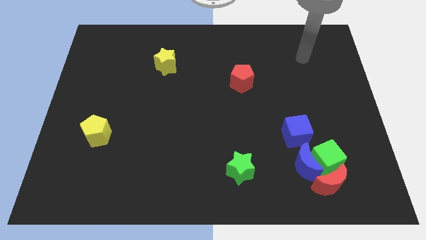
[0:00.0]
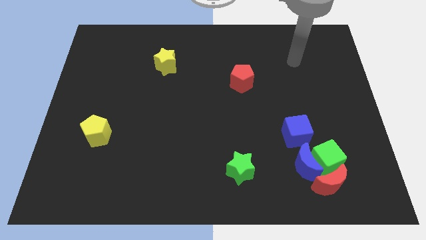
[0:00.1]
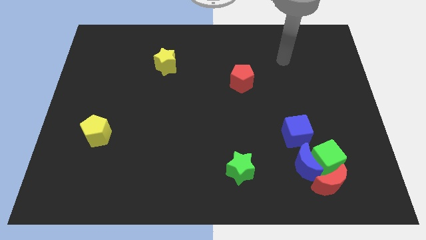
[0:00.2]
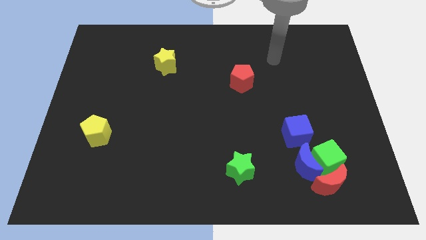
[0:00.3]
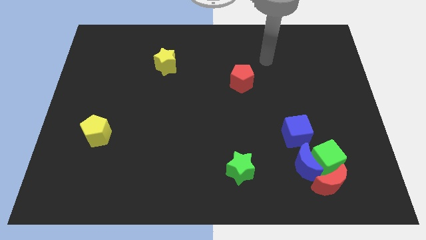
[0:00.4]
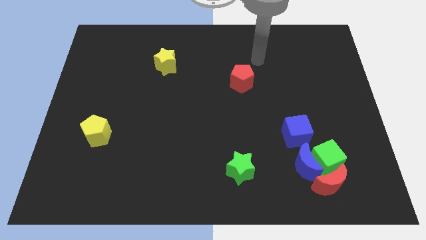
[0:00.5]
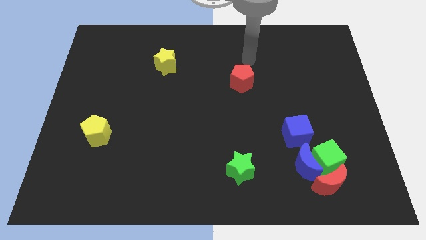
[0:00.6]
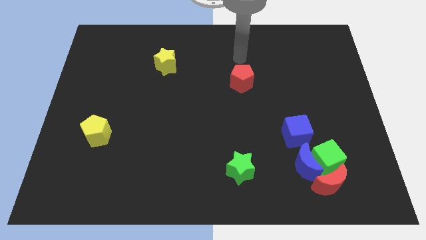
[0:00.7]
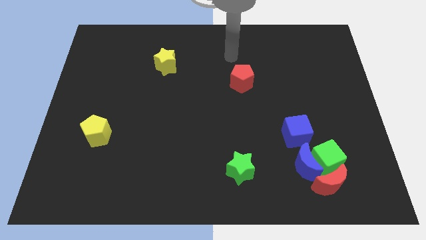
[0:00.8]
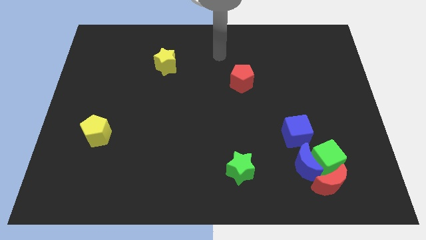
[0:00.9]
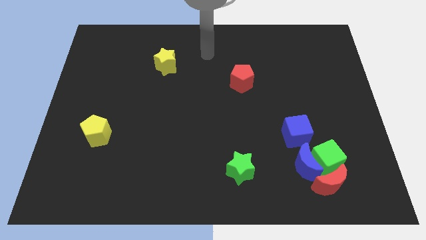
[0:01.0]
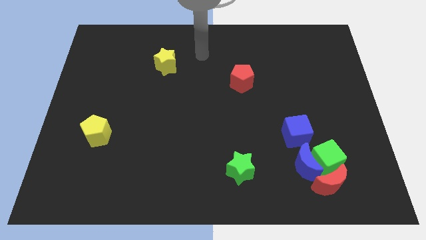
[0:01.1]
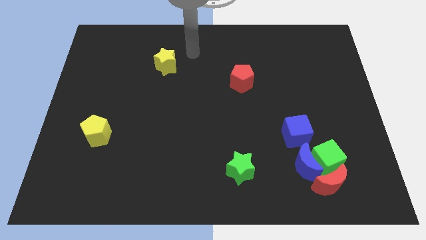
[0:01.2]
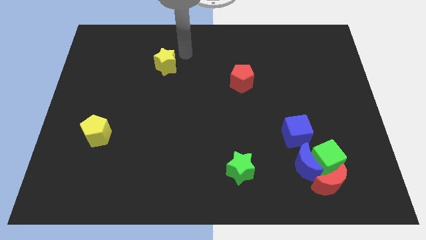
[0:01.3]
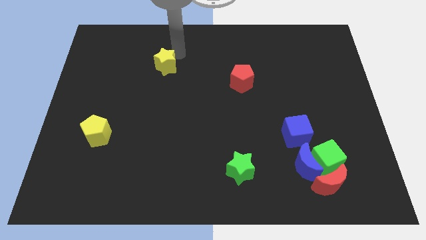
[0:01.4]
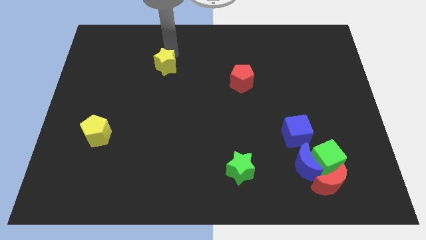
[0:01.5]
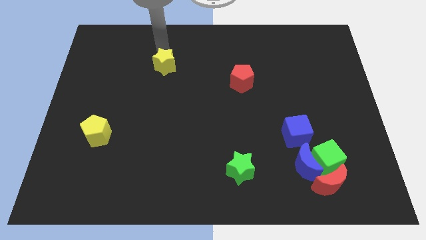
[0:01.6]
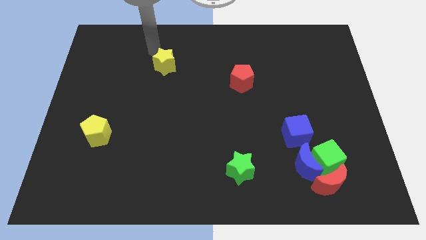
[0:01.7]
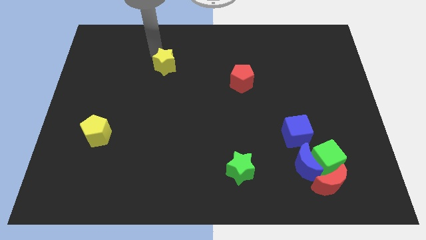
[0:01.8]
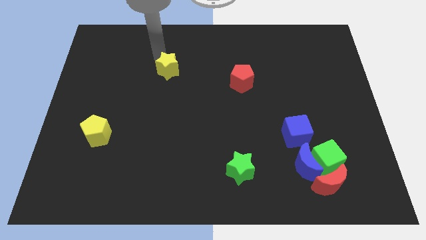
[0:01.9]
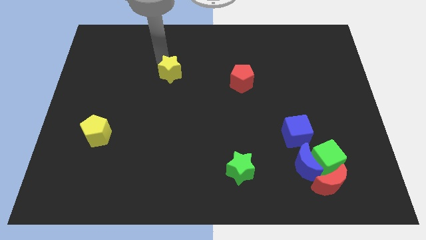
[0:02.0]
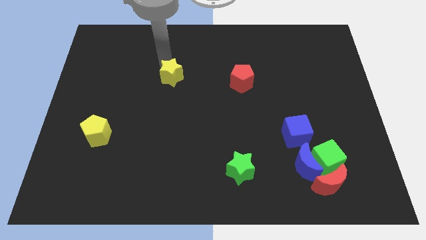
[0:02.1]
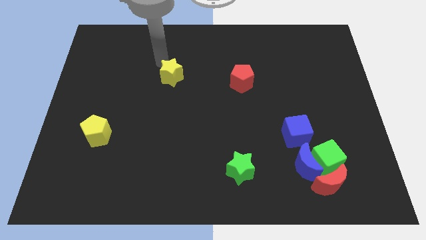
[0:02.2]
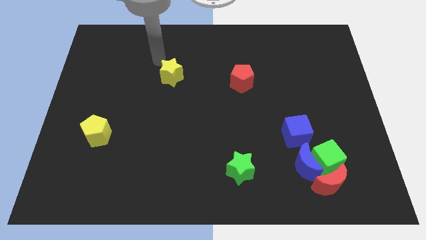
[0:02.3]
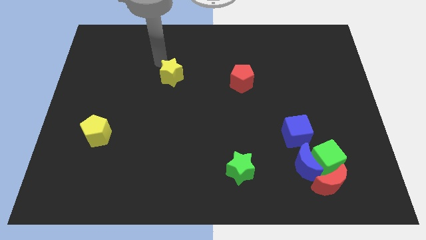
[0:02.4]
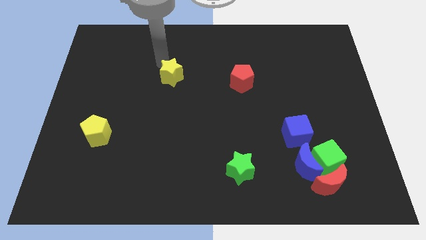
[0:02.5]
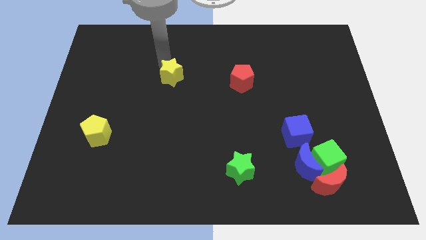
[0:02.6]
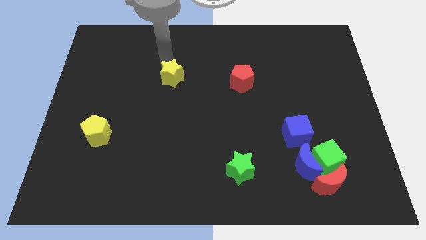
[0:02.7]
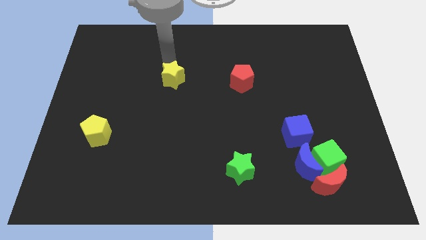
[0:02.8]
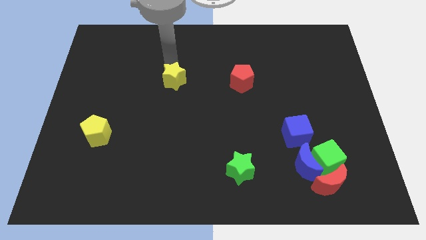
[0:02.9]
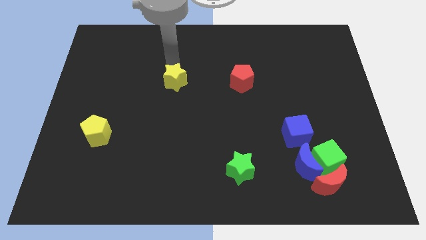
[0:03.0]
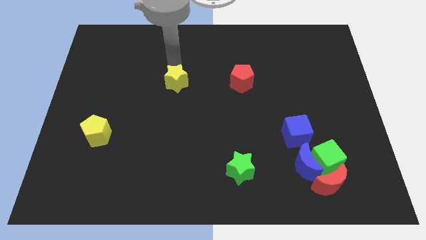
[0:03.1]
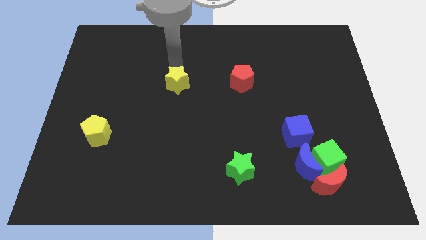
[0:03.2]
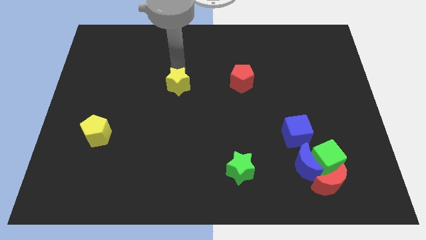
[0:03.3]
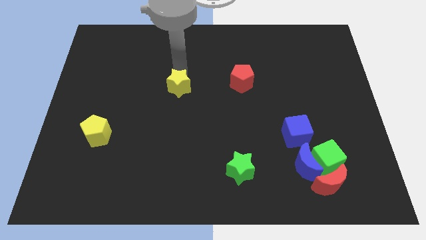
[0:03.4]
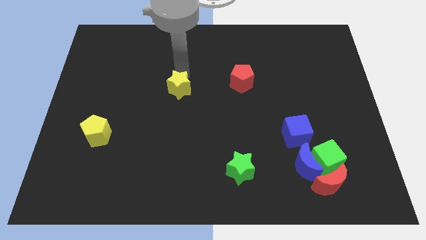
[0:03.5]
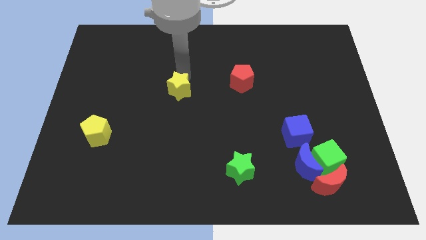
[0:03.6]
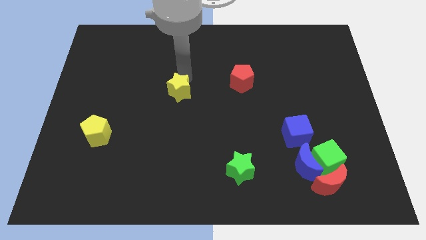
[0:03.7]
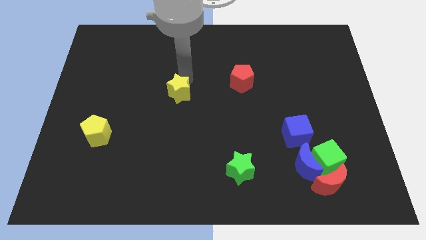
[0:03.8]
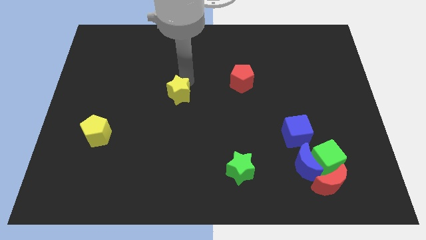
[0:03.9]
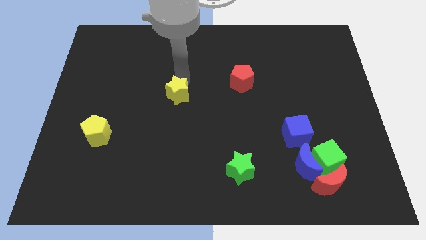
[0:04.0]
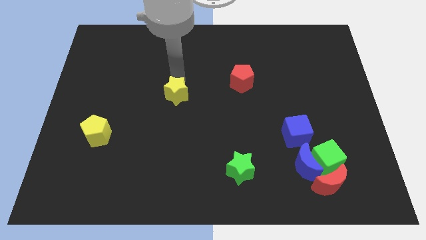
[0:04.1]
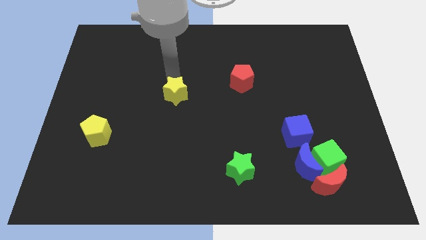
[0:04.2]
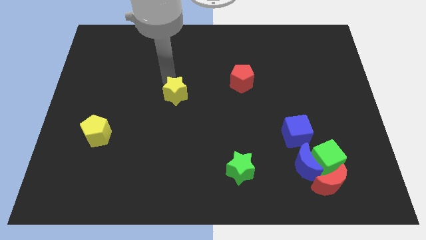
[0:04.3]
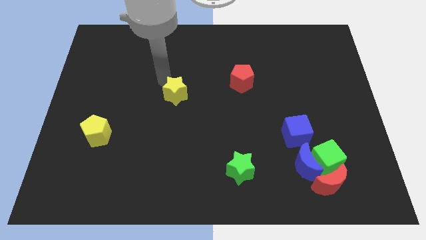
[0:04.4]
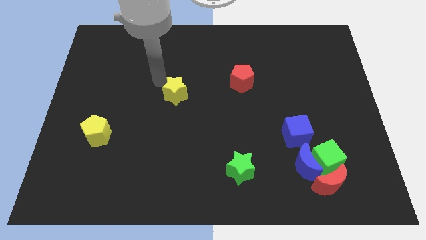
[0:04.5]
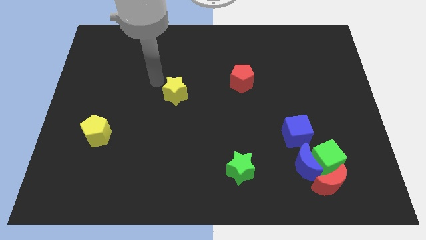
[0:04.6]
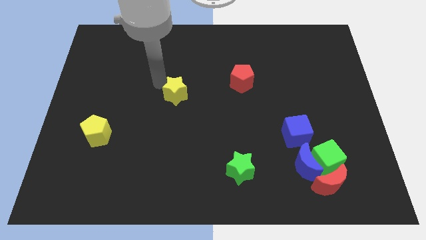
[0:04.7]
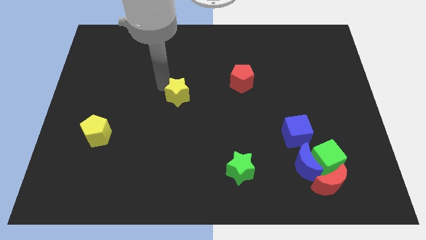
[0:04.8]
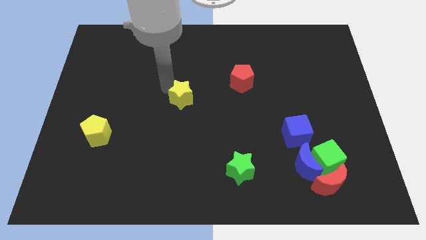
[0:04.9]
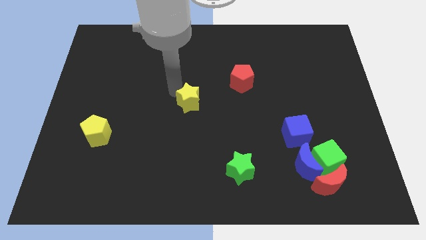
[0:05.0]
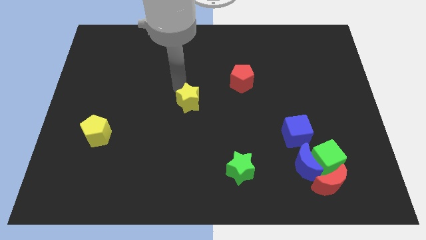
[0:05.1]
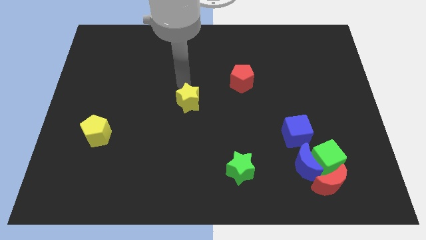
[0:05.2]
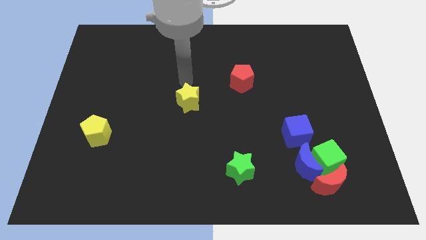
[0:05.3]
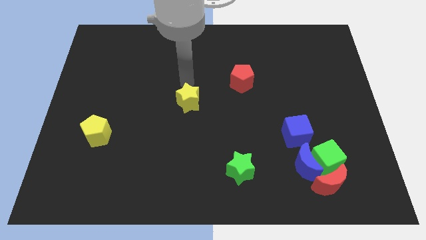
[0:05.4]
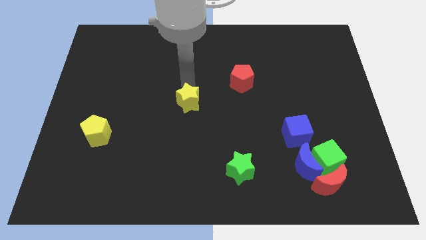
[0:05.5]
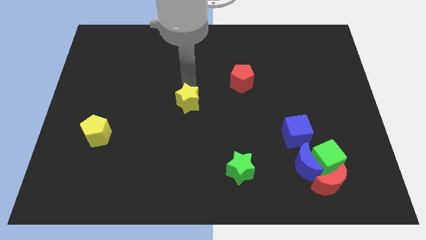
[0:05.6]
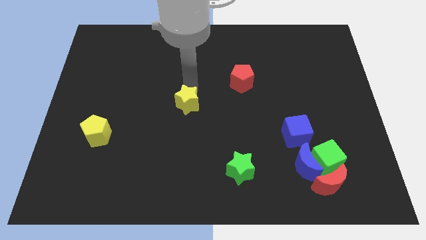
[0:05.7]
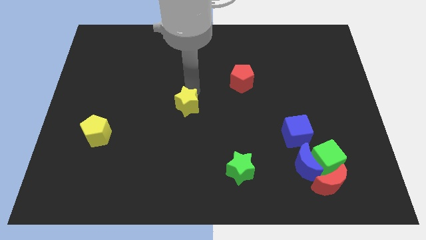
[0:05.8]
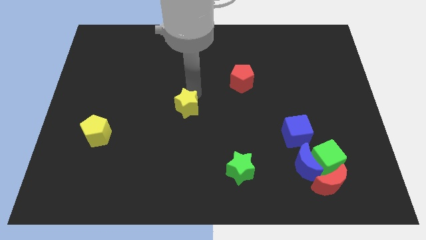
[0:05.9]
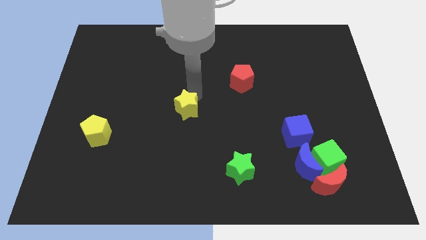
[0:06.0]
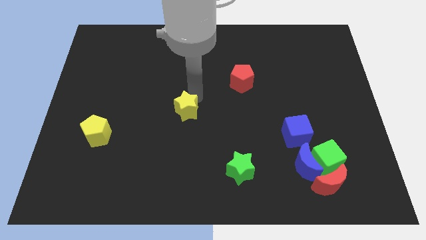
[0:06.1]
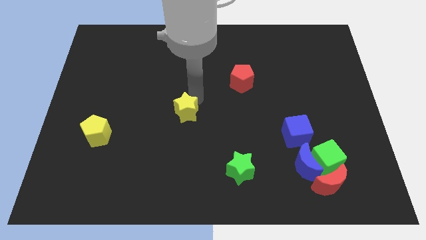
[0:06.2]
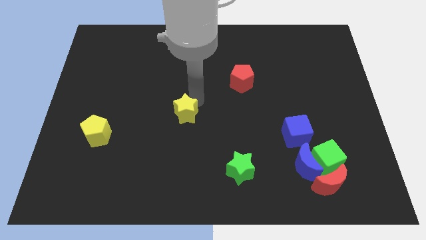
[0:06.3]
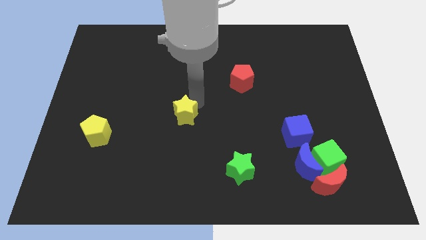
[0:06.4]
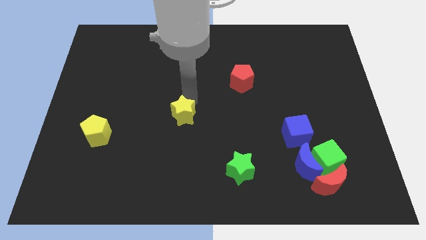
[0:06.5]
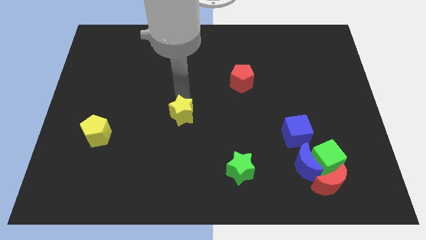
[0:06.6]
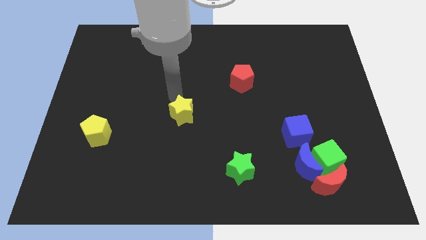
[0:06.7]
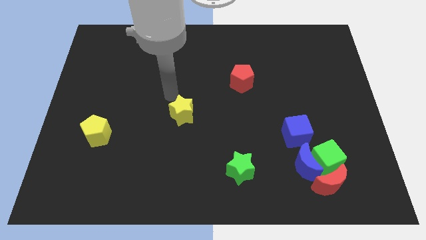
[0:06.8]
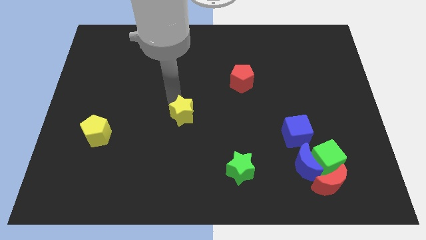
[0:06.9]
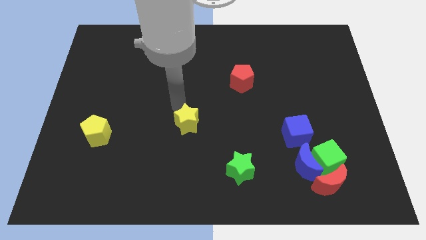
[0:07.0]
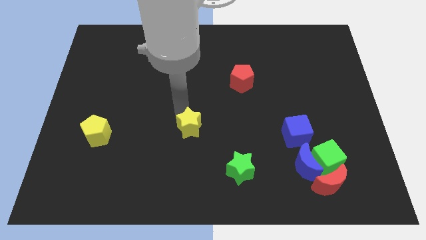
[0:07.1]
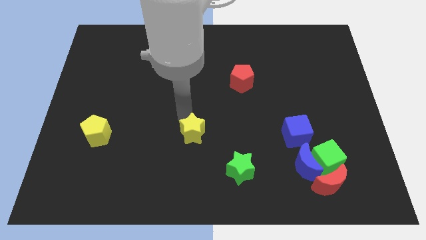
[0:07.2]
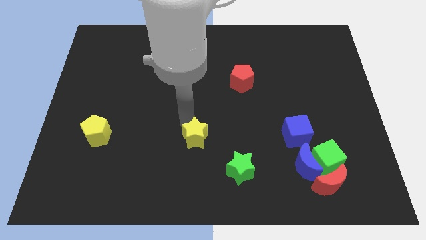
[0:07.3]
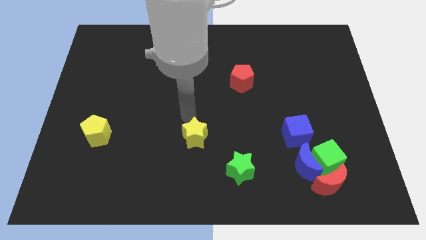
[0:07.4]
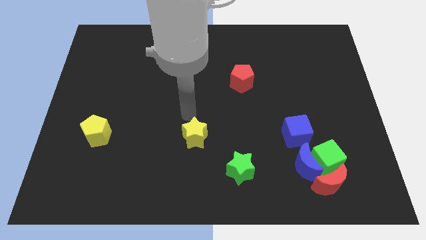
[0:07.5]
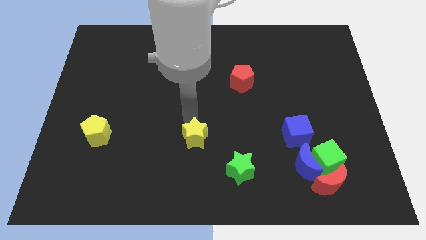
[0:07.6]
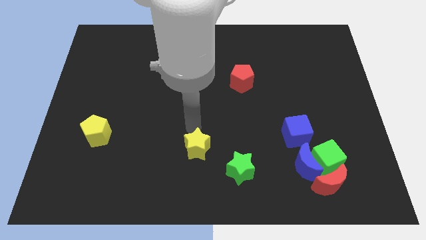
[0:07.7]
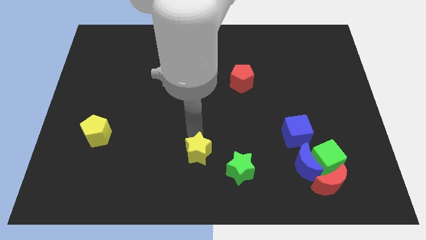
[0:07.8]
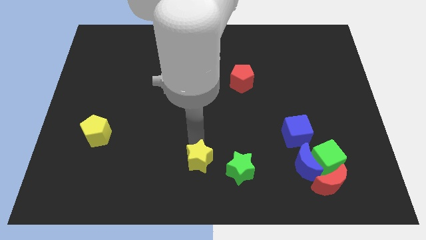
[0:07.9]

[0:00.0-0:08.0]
slide the yellow star to the bottom side
